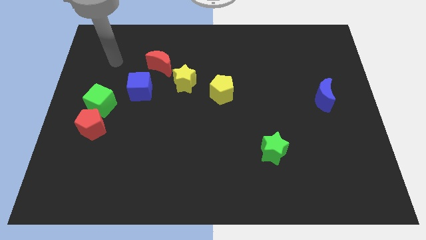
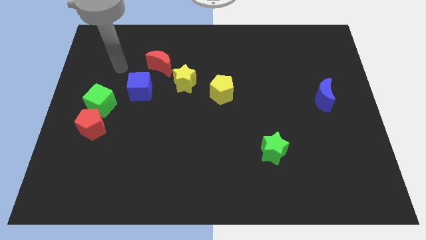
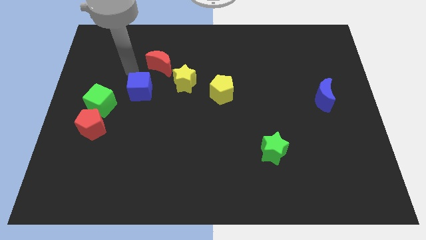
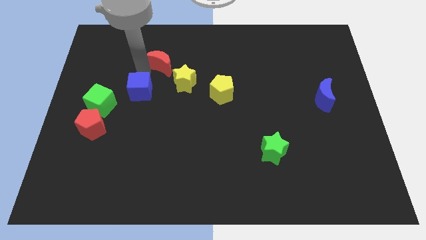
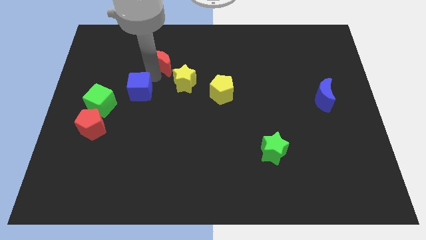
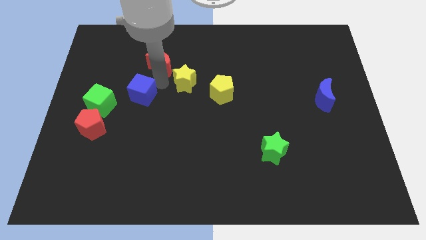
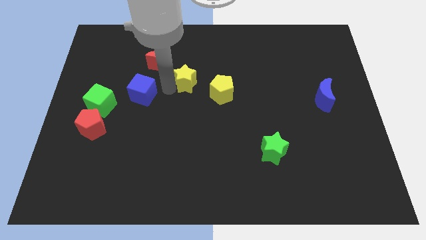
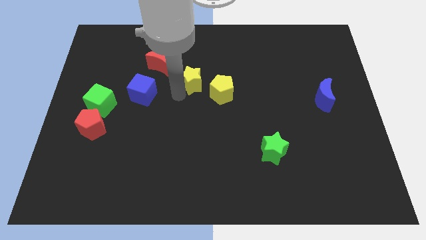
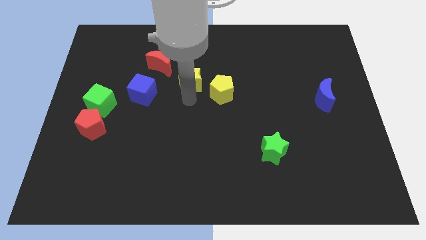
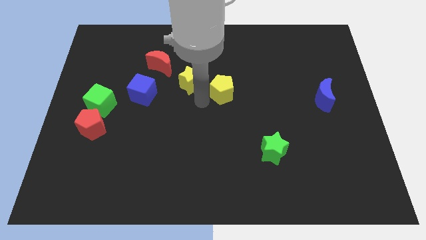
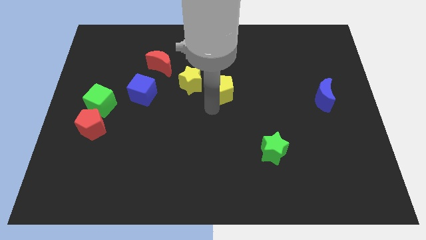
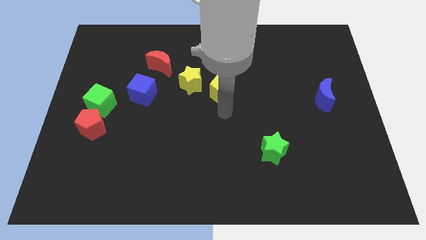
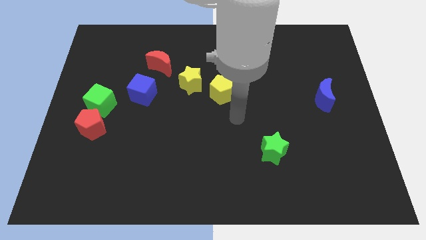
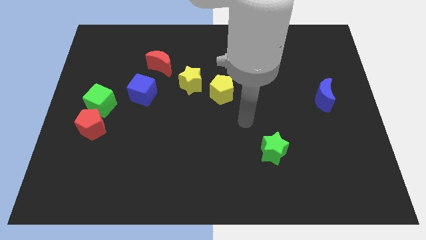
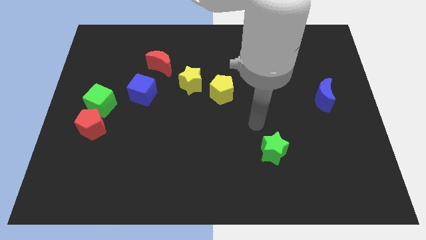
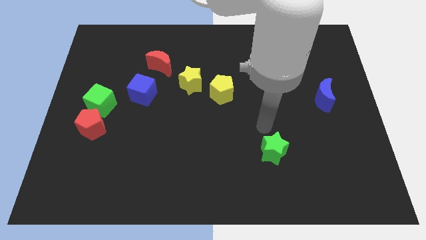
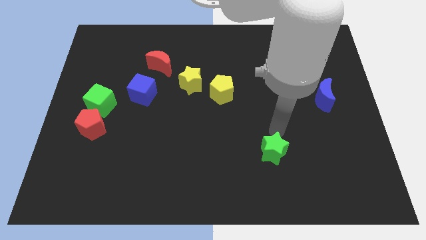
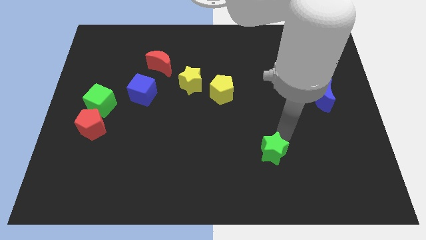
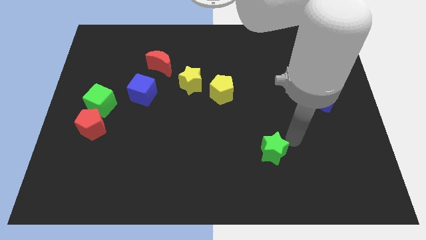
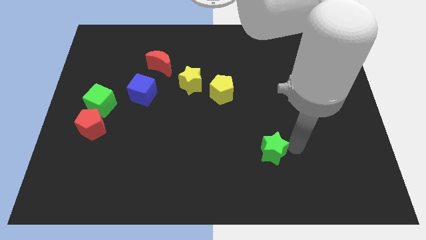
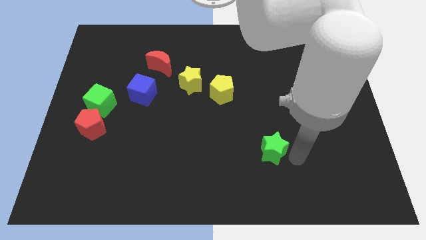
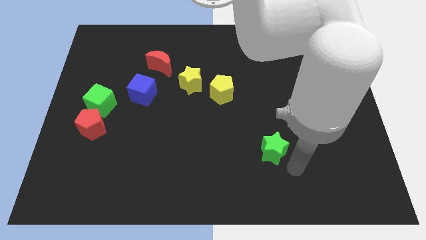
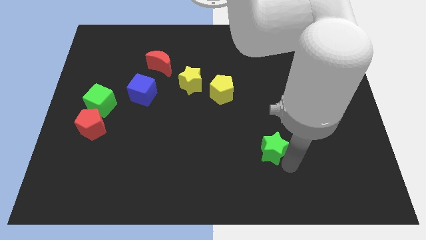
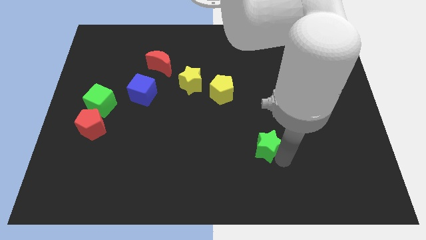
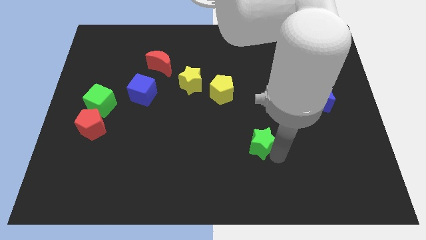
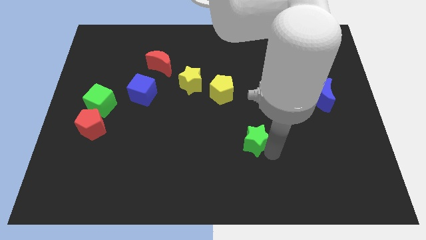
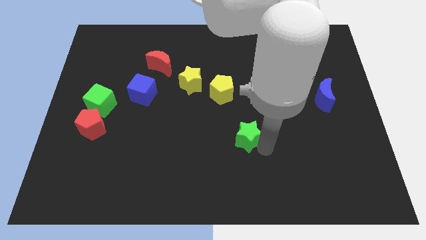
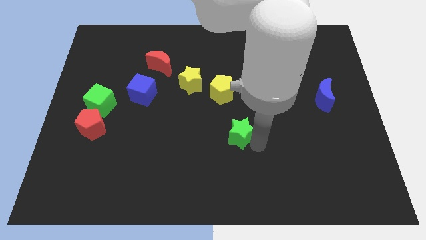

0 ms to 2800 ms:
slide the green star upwards and left a bit

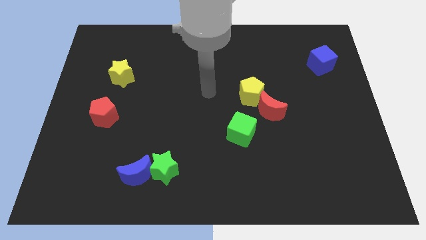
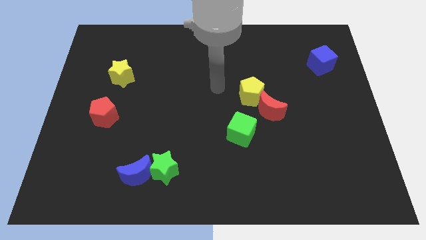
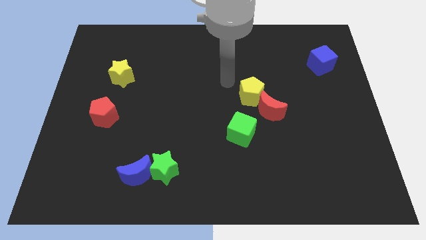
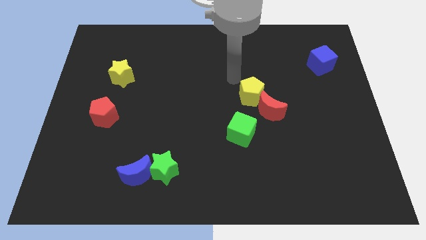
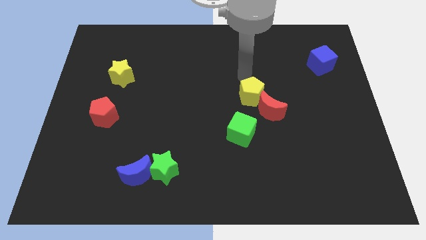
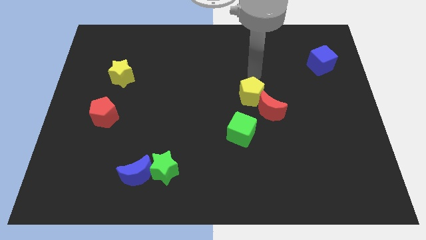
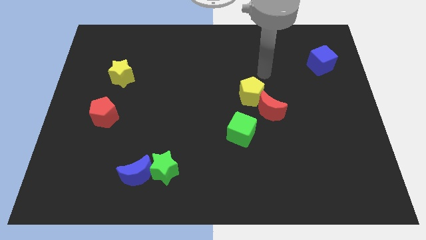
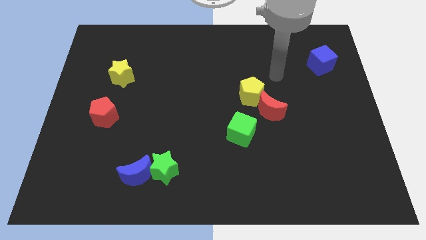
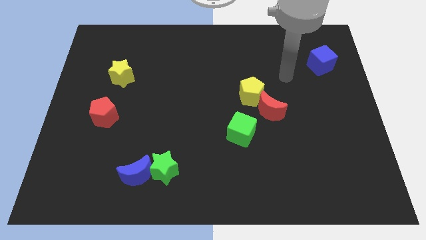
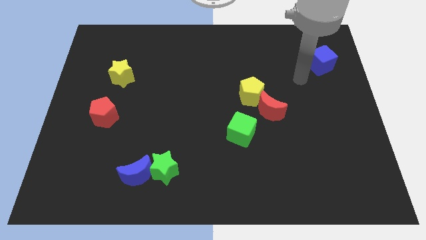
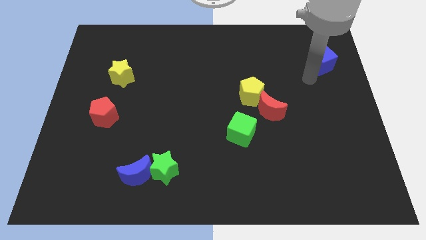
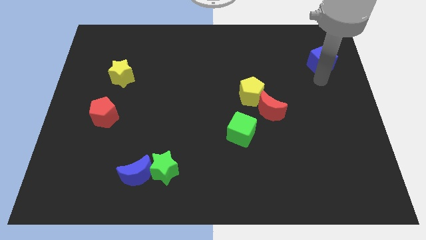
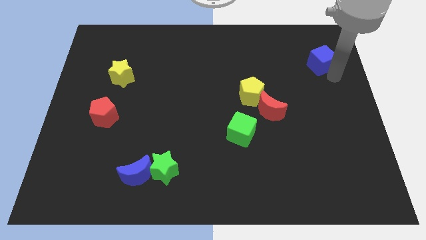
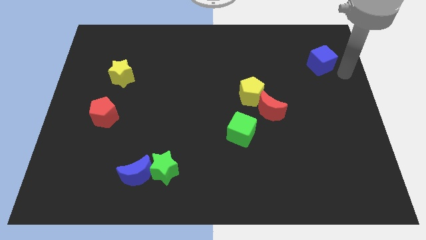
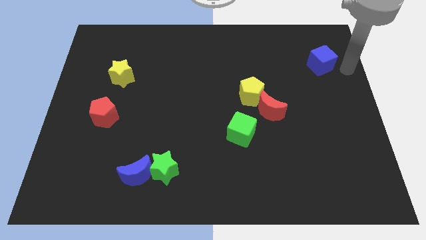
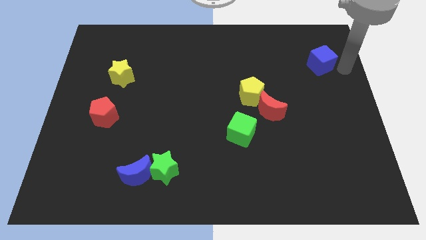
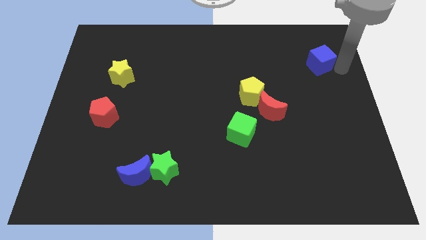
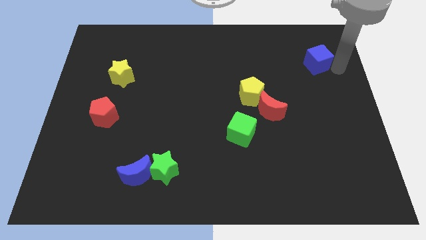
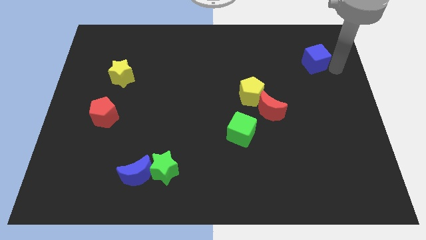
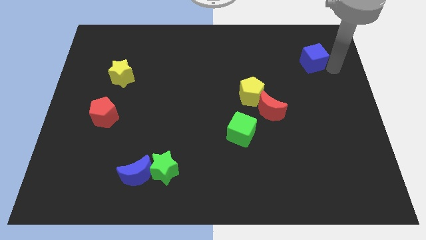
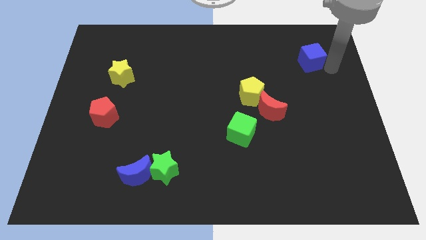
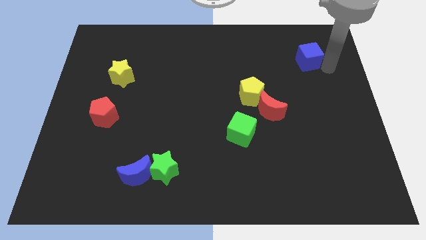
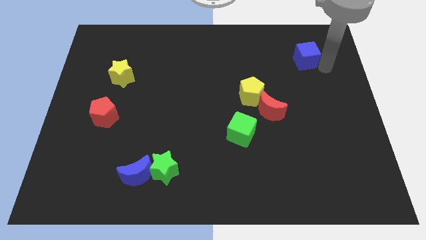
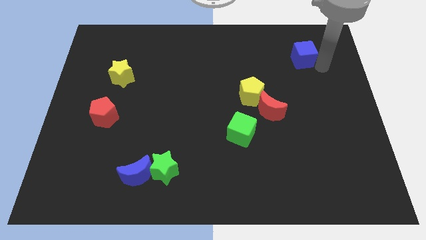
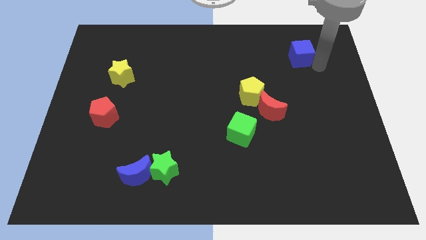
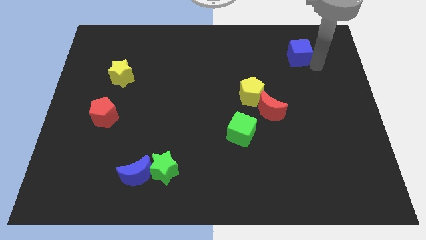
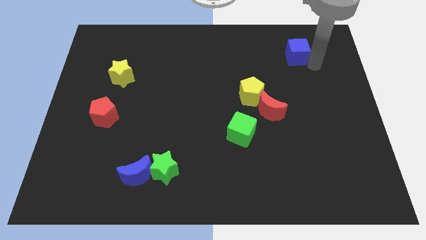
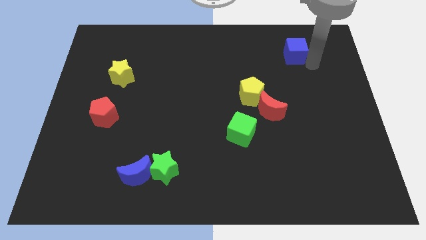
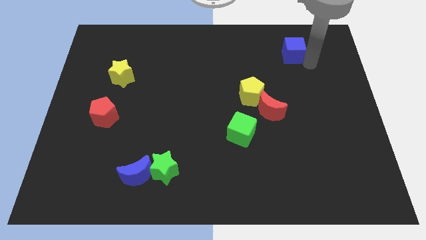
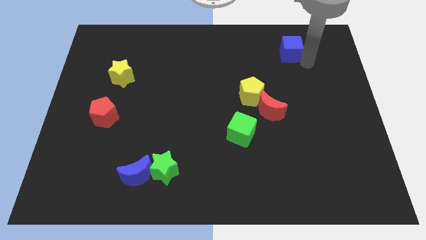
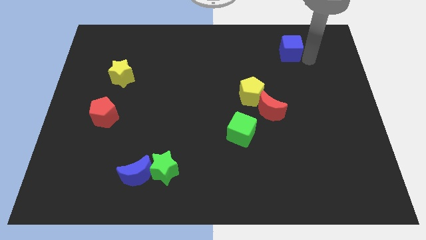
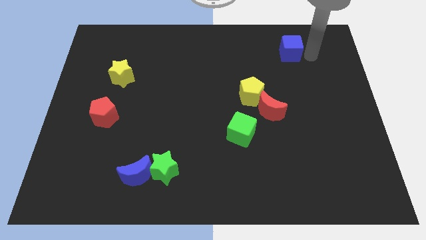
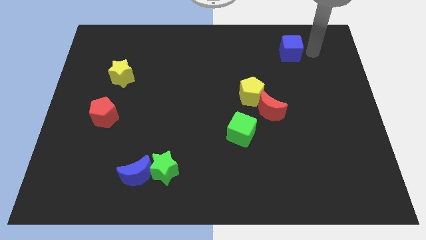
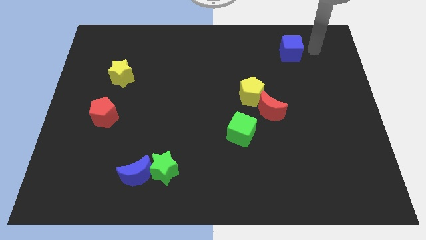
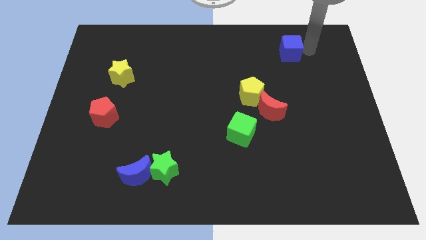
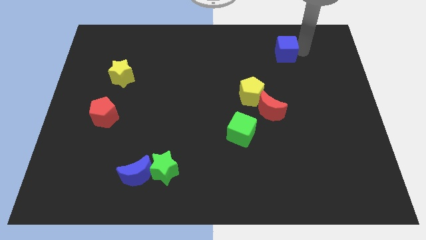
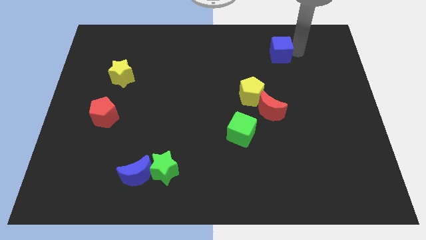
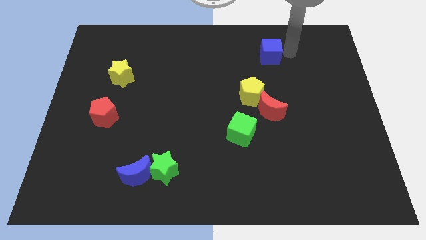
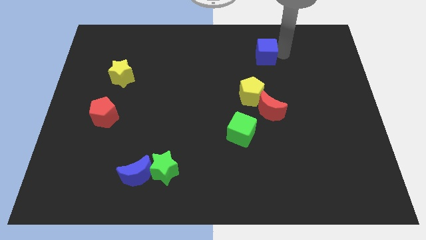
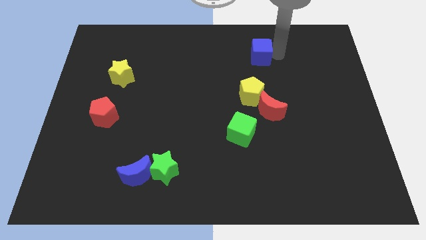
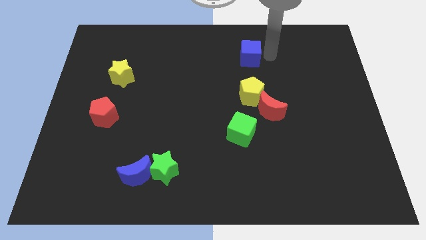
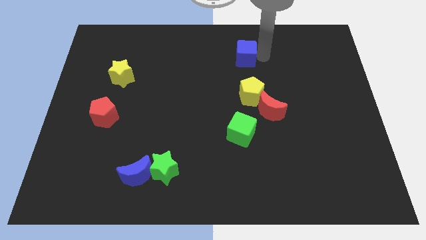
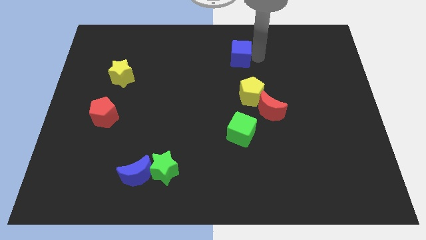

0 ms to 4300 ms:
slide the blue cube left

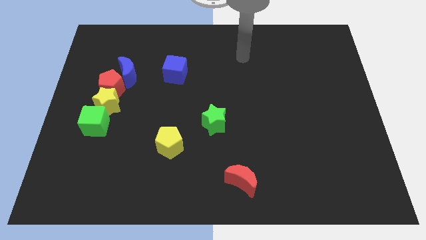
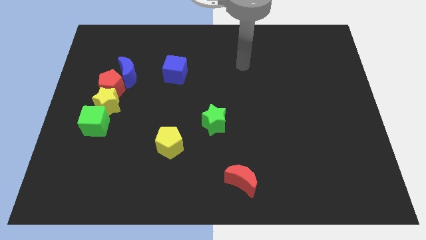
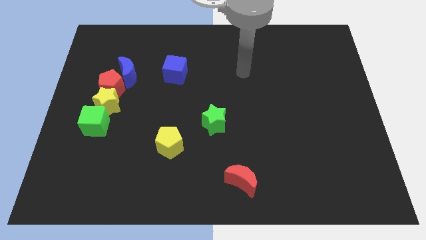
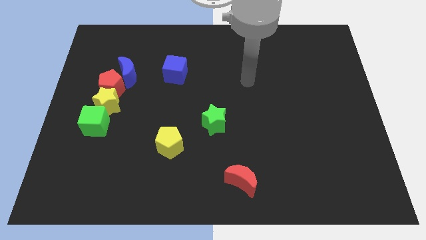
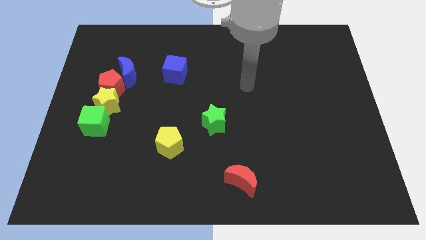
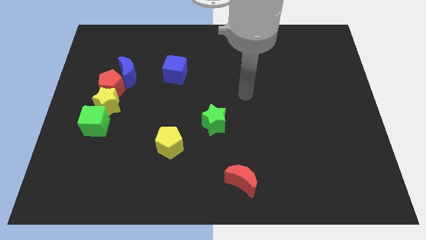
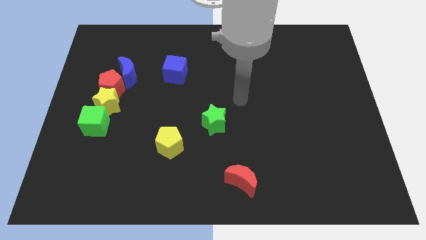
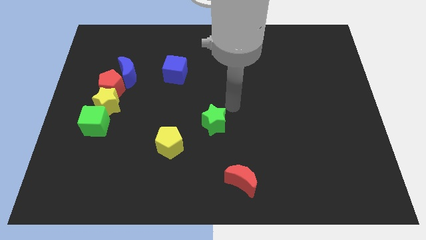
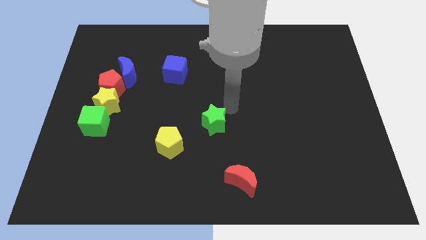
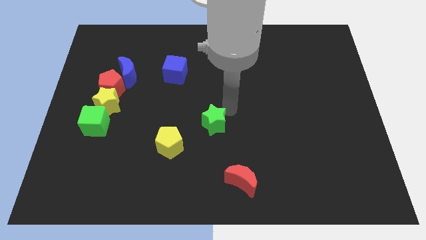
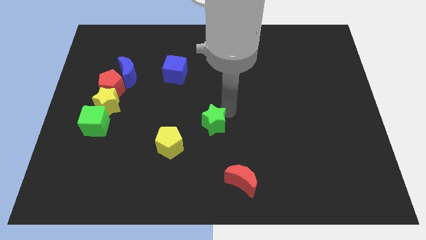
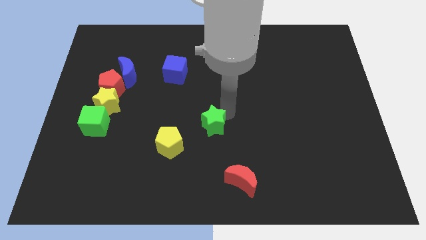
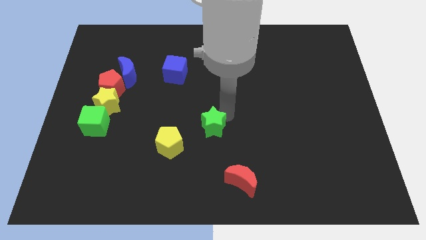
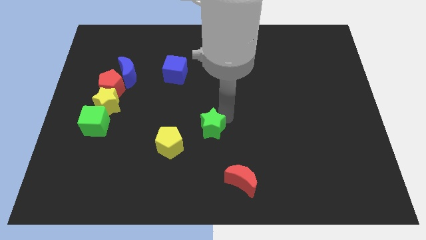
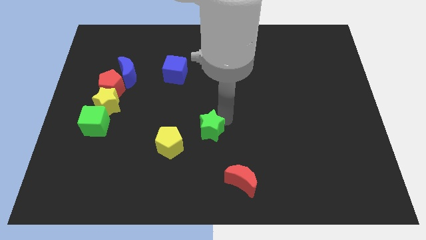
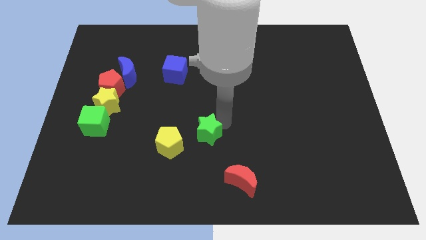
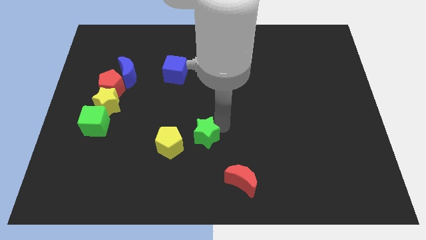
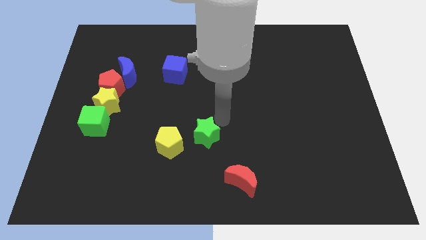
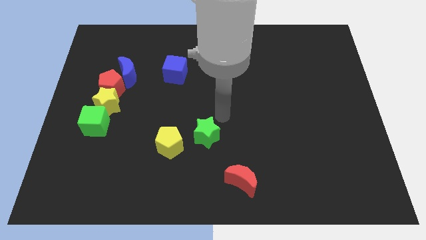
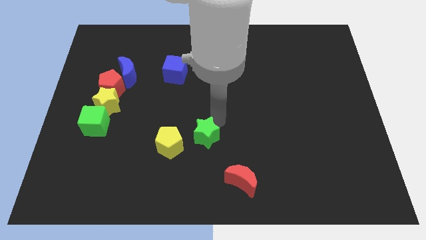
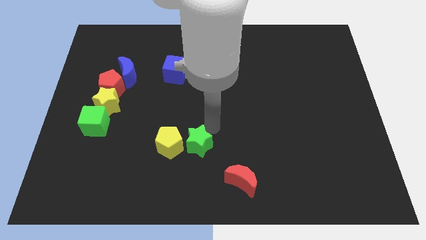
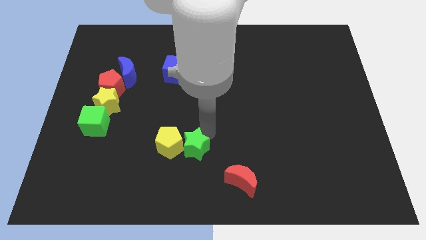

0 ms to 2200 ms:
slightly move the green star down and left
